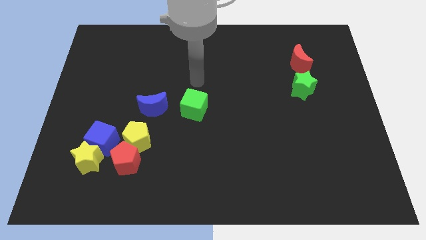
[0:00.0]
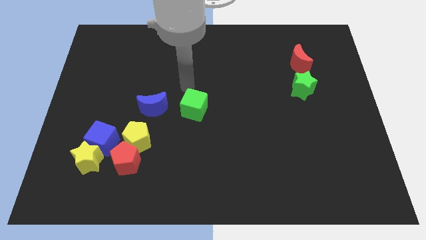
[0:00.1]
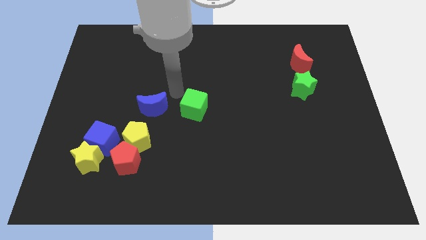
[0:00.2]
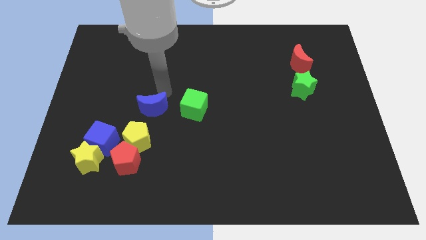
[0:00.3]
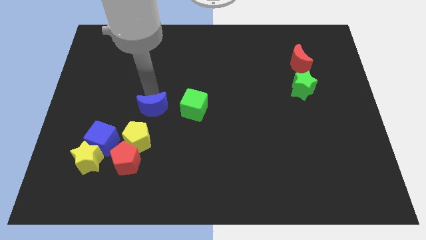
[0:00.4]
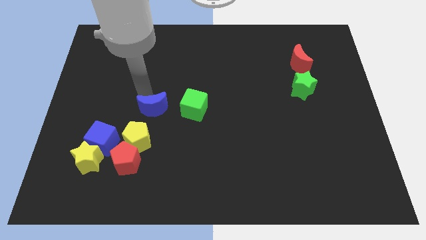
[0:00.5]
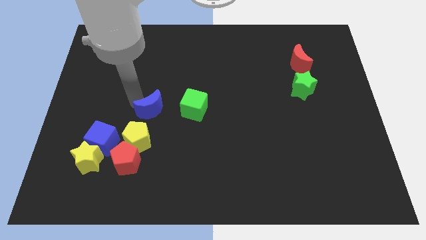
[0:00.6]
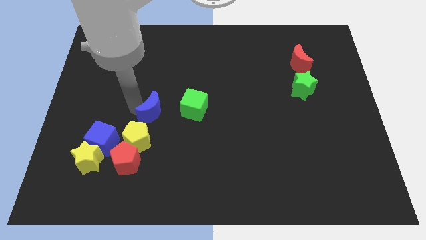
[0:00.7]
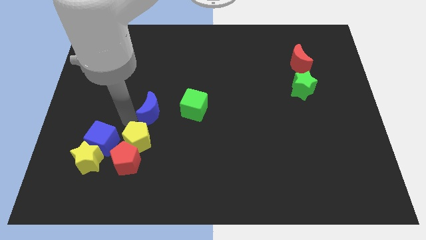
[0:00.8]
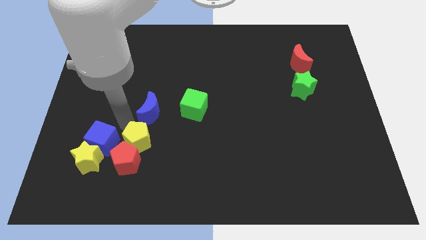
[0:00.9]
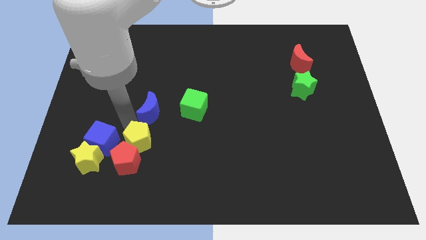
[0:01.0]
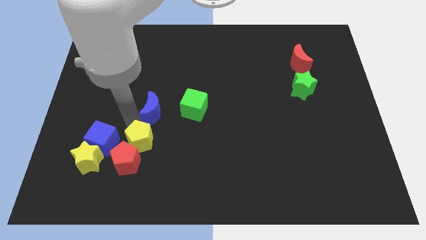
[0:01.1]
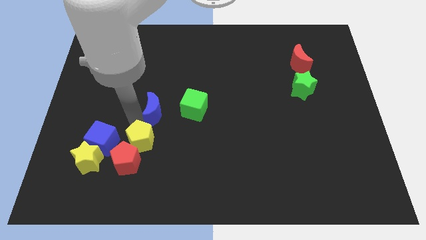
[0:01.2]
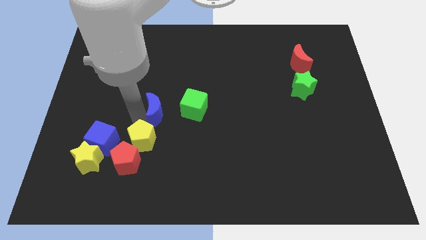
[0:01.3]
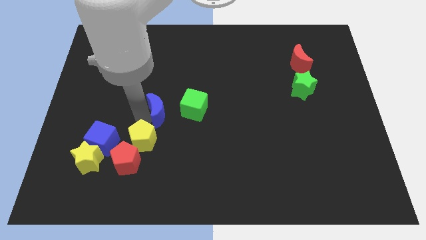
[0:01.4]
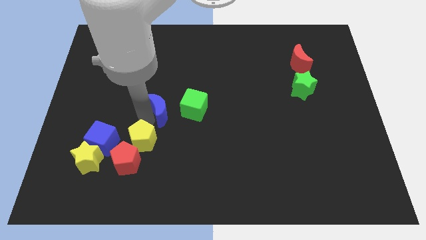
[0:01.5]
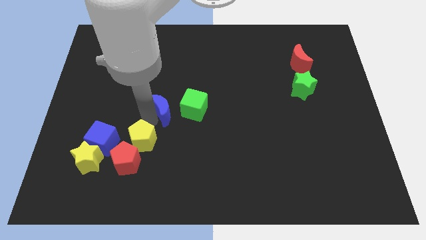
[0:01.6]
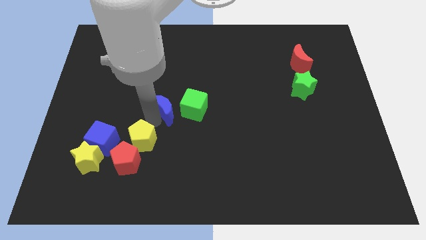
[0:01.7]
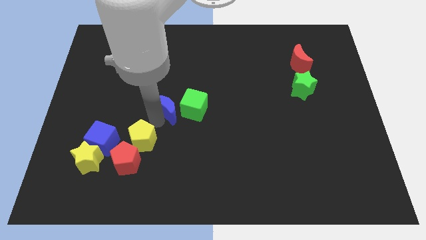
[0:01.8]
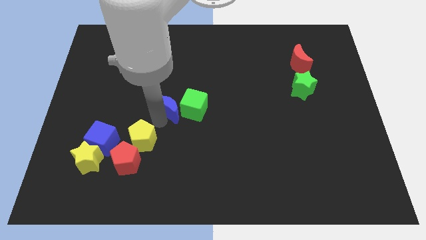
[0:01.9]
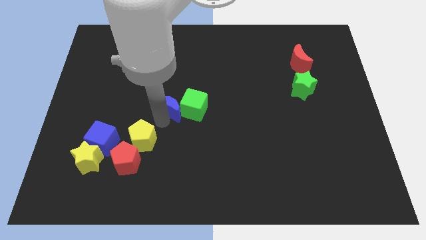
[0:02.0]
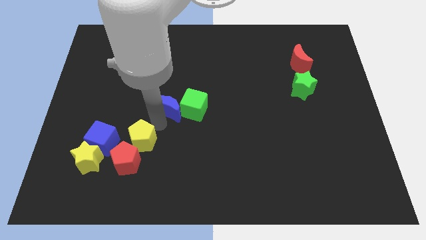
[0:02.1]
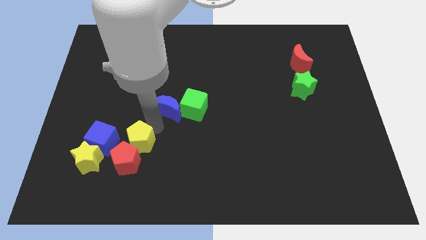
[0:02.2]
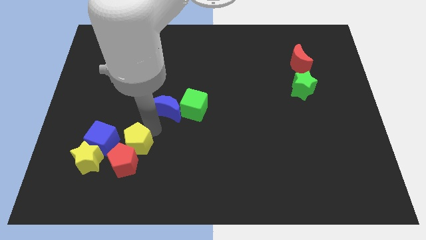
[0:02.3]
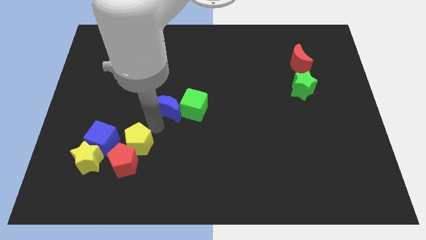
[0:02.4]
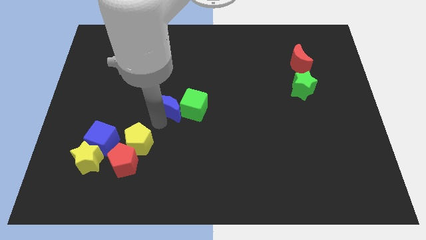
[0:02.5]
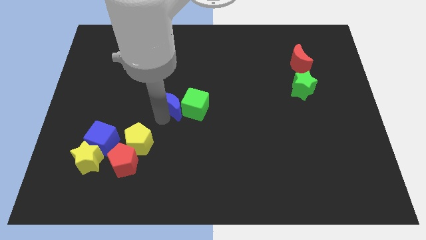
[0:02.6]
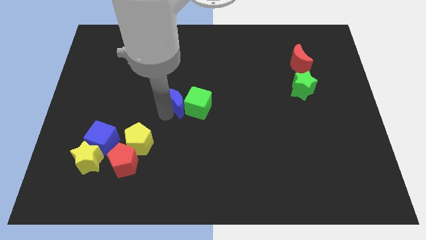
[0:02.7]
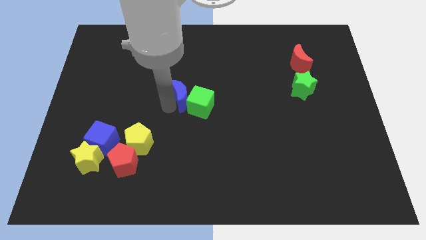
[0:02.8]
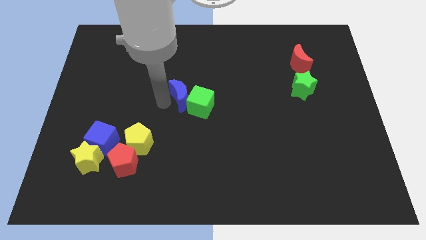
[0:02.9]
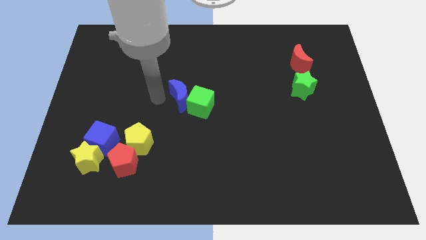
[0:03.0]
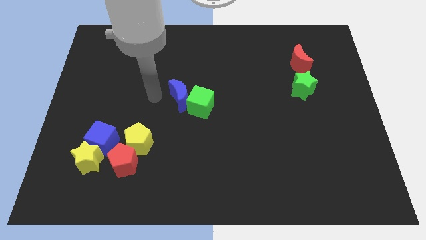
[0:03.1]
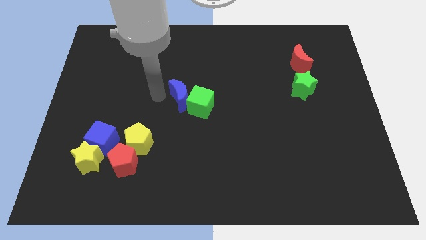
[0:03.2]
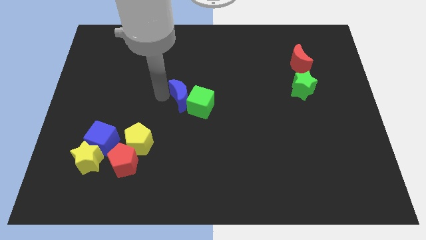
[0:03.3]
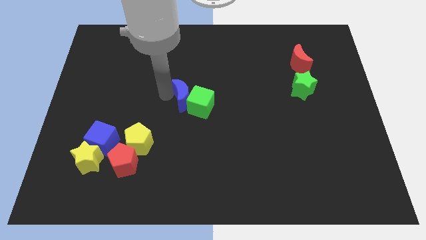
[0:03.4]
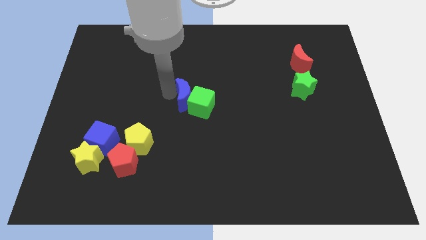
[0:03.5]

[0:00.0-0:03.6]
slightly push the blue moon to the right

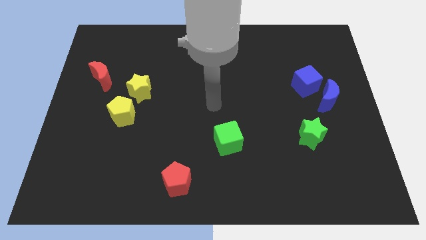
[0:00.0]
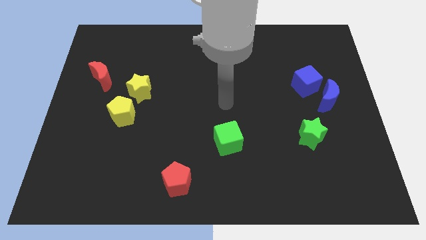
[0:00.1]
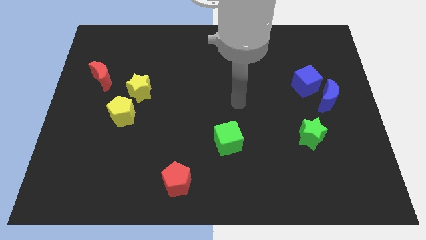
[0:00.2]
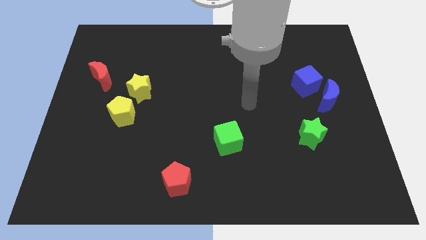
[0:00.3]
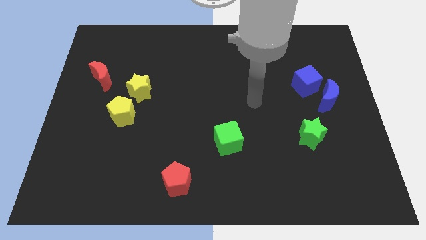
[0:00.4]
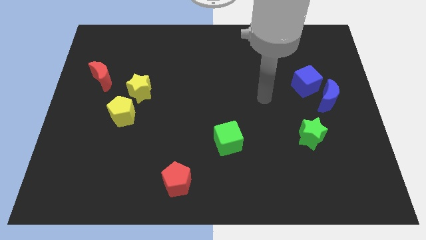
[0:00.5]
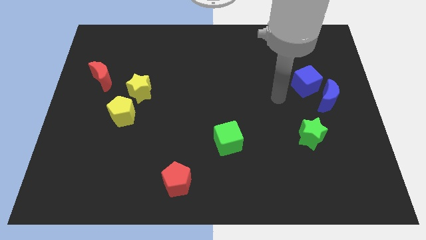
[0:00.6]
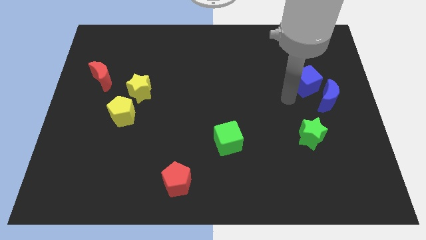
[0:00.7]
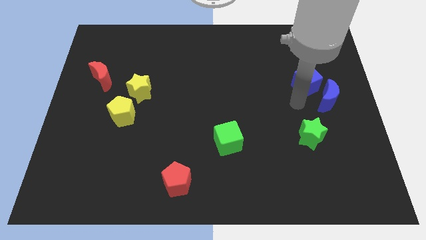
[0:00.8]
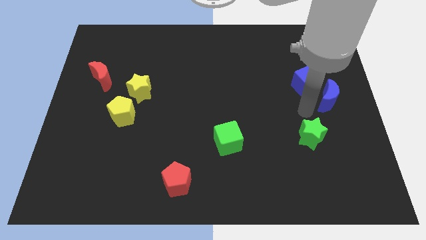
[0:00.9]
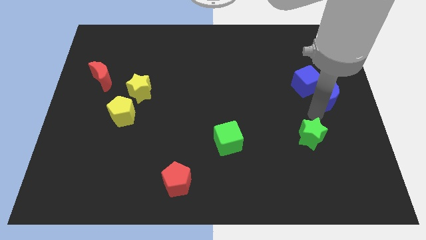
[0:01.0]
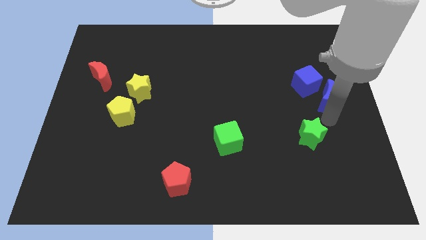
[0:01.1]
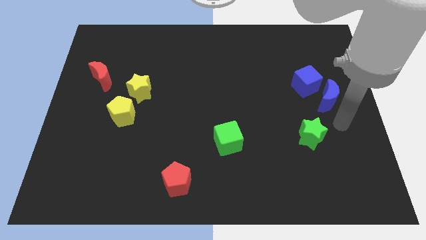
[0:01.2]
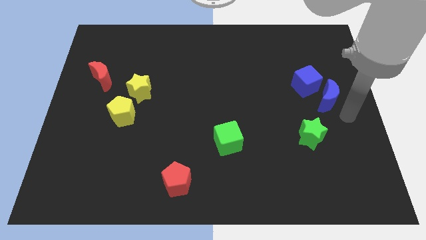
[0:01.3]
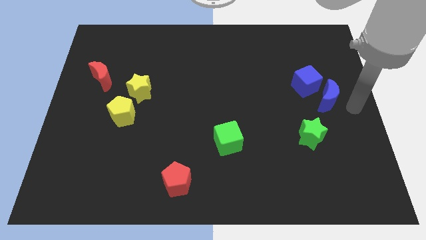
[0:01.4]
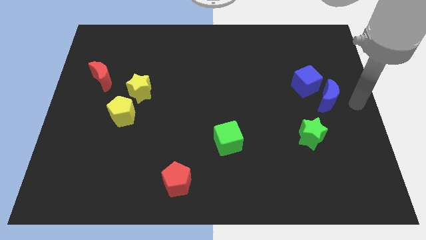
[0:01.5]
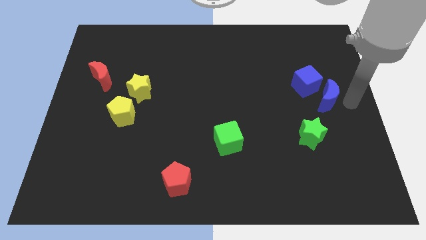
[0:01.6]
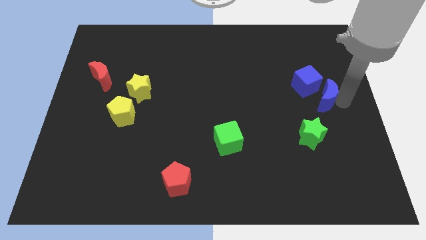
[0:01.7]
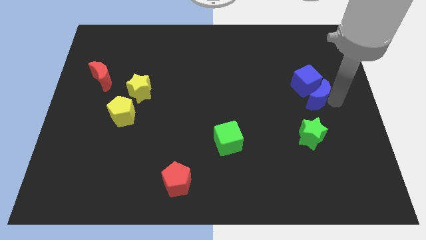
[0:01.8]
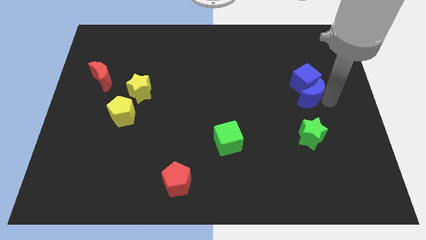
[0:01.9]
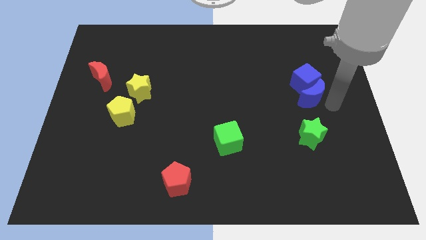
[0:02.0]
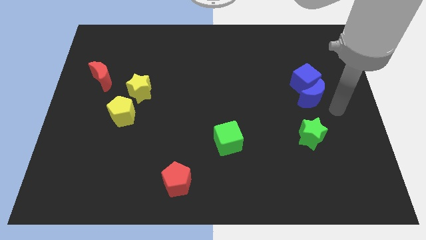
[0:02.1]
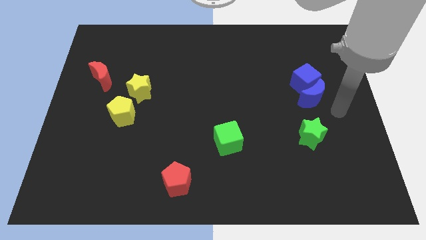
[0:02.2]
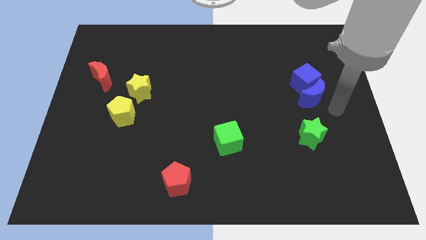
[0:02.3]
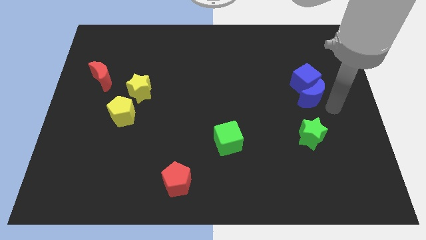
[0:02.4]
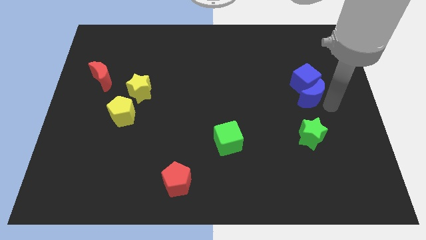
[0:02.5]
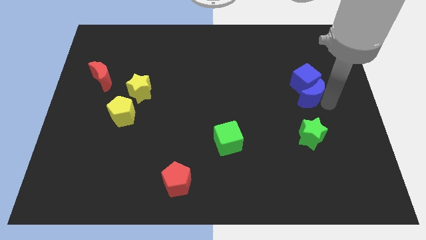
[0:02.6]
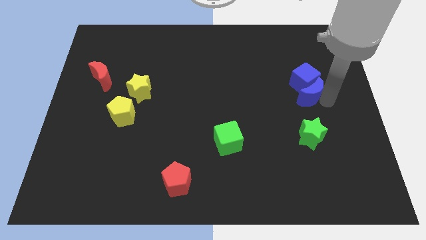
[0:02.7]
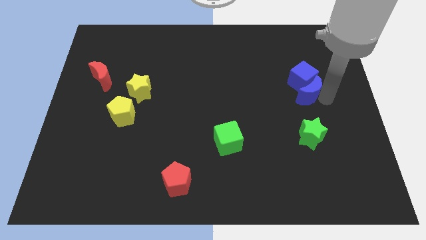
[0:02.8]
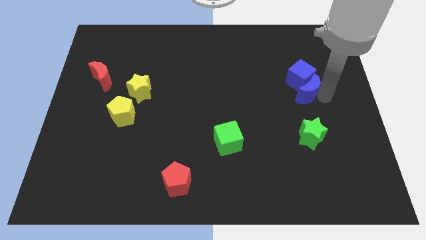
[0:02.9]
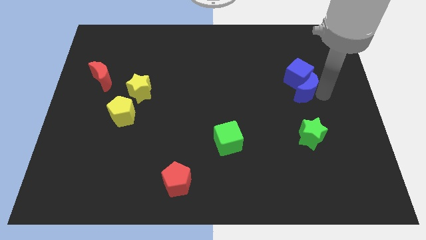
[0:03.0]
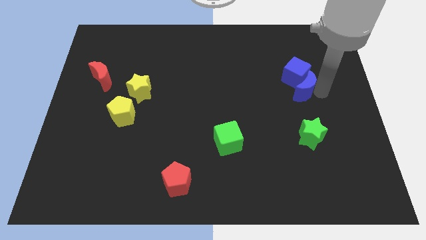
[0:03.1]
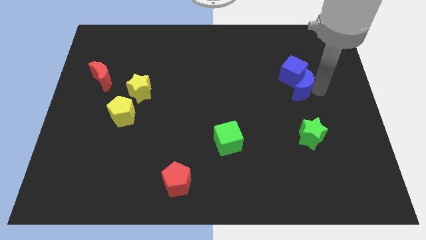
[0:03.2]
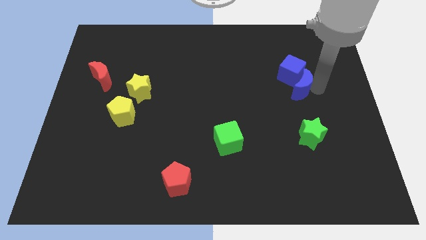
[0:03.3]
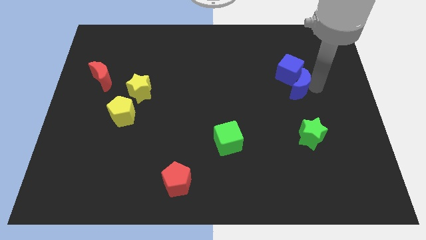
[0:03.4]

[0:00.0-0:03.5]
slide the blue moon a bit diagonally up and left

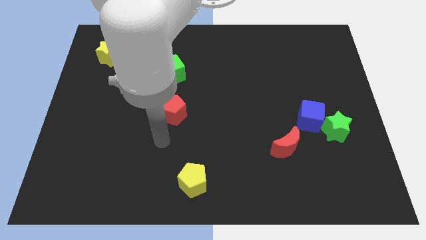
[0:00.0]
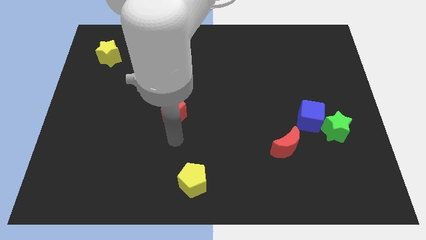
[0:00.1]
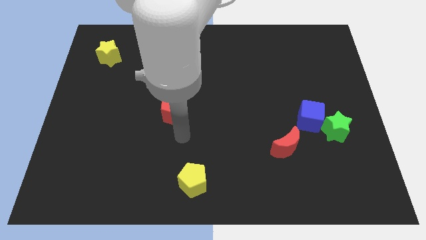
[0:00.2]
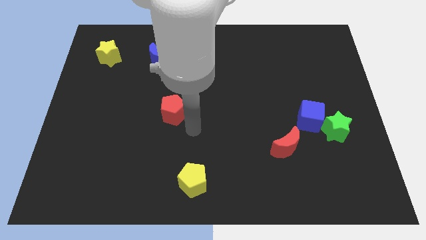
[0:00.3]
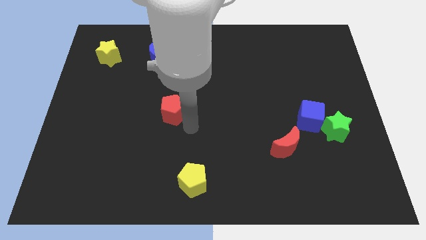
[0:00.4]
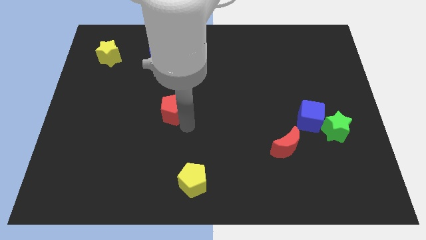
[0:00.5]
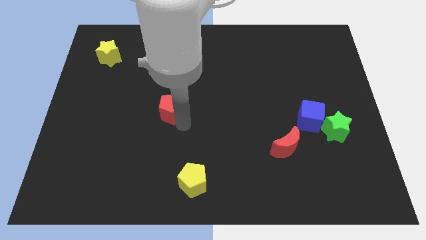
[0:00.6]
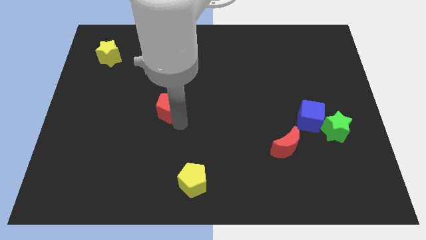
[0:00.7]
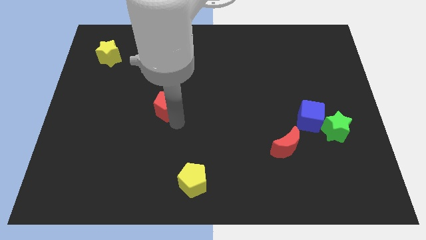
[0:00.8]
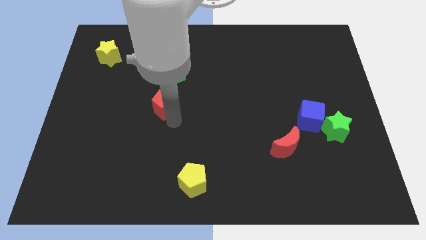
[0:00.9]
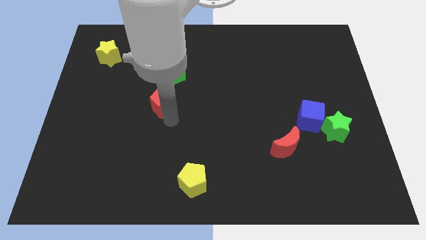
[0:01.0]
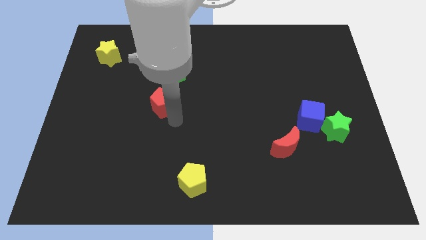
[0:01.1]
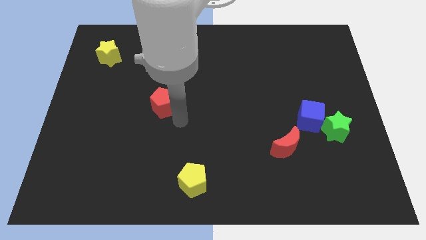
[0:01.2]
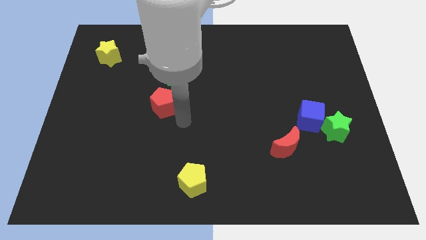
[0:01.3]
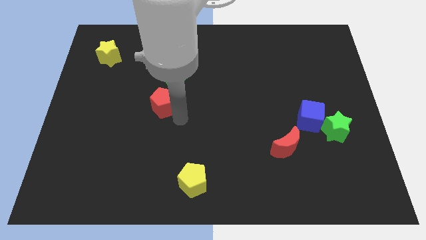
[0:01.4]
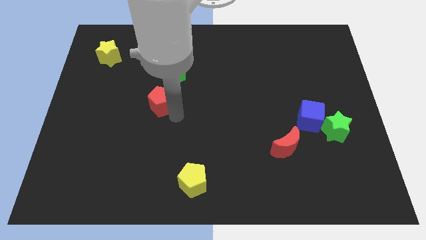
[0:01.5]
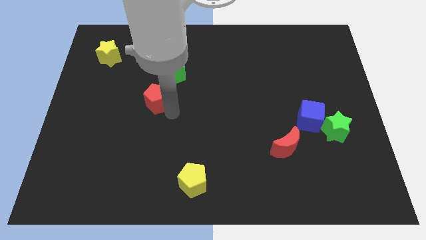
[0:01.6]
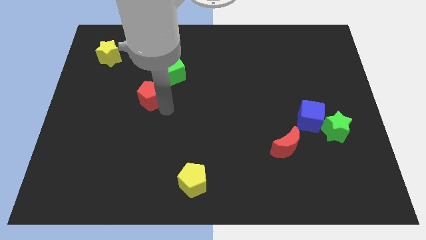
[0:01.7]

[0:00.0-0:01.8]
slightly slide the red pentagon upwards and left
